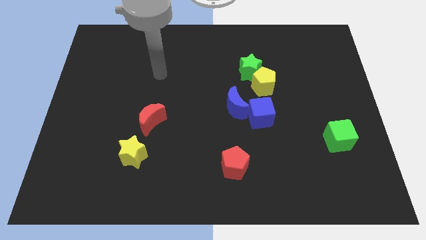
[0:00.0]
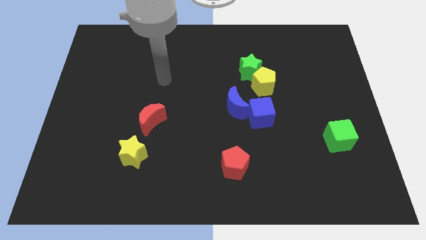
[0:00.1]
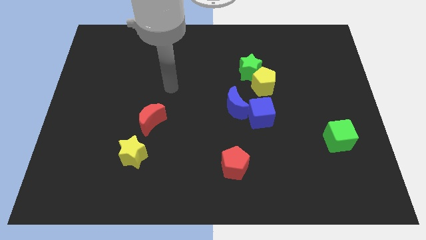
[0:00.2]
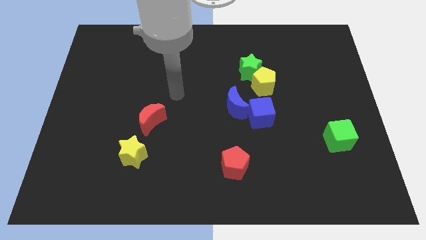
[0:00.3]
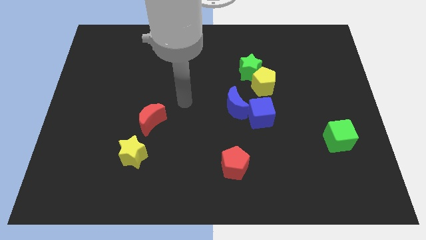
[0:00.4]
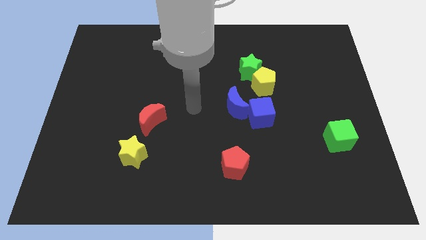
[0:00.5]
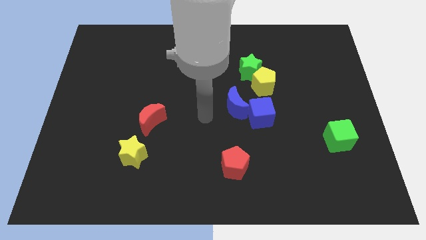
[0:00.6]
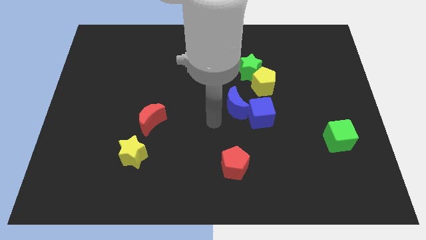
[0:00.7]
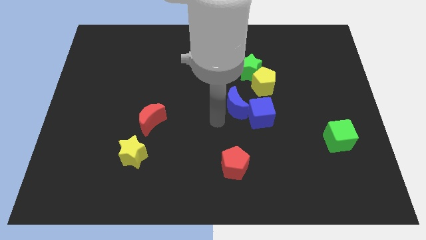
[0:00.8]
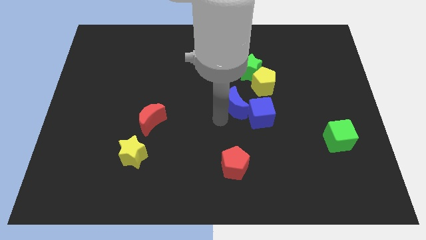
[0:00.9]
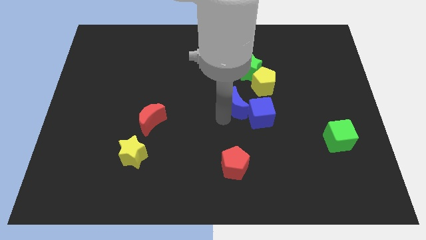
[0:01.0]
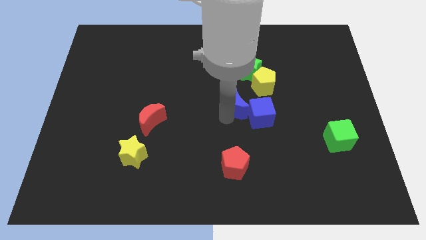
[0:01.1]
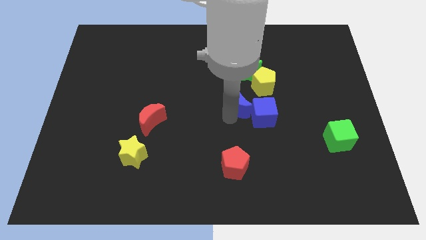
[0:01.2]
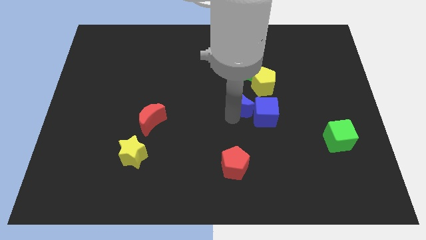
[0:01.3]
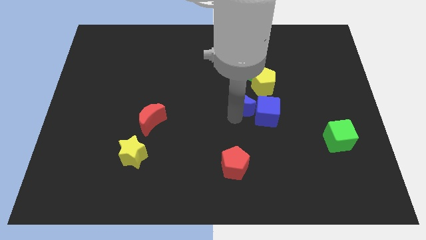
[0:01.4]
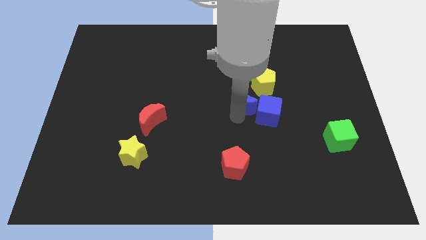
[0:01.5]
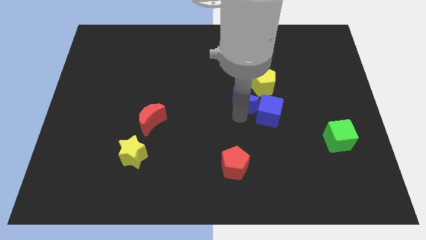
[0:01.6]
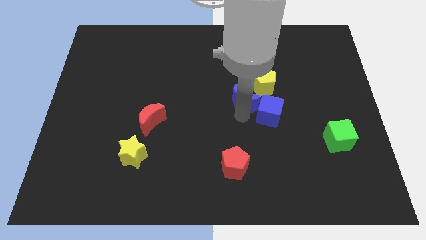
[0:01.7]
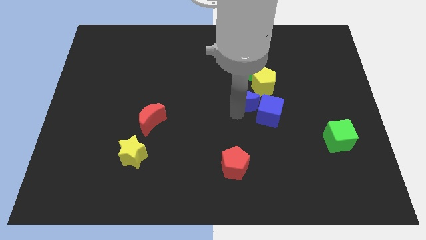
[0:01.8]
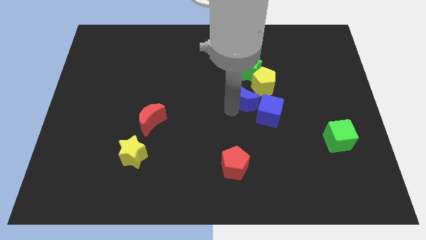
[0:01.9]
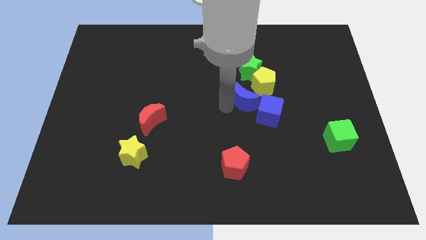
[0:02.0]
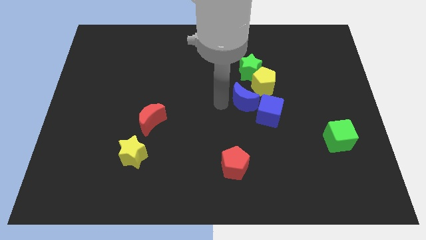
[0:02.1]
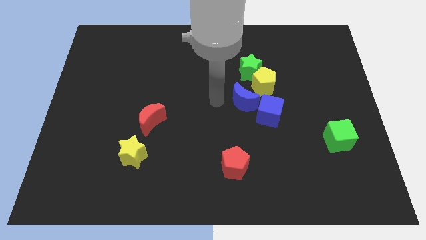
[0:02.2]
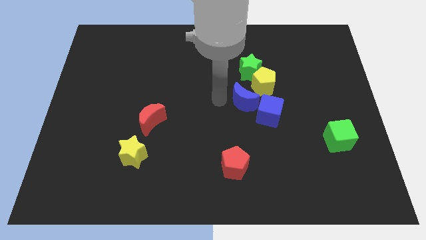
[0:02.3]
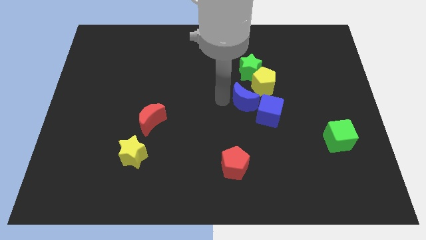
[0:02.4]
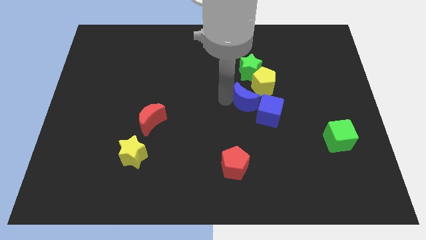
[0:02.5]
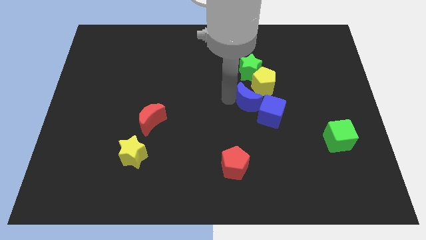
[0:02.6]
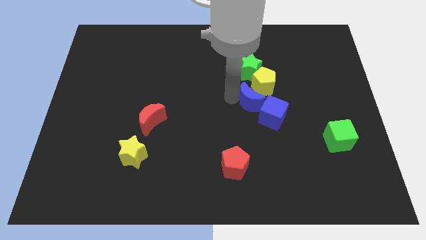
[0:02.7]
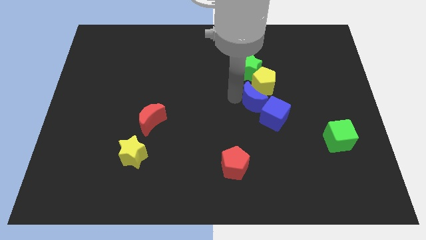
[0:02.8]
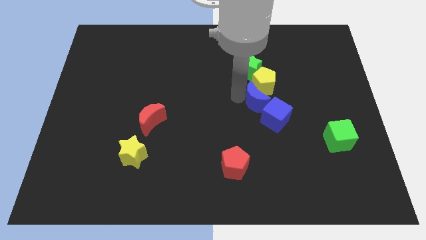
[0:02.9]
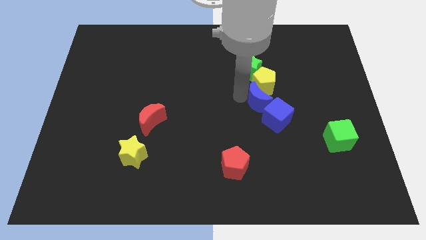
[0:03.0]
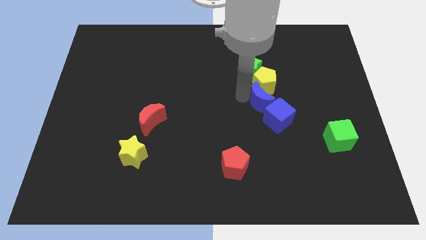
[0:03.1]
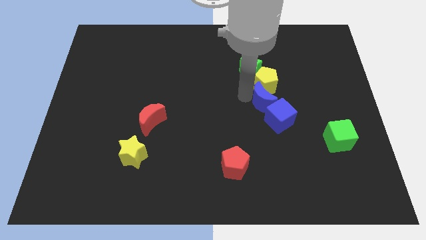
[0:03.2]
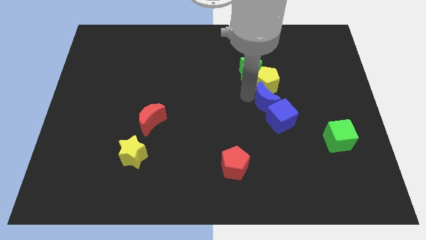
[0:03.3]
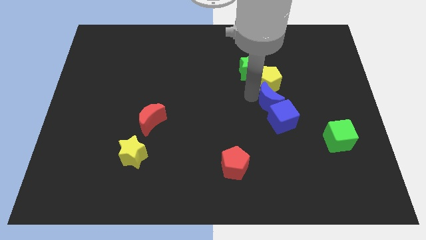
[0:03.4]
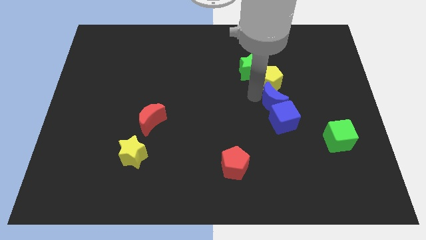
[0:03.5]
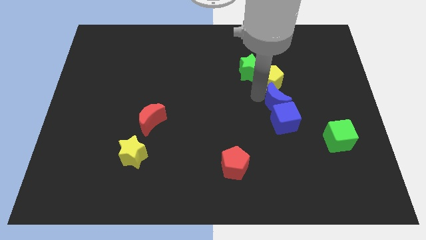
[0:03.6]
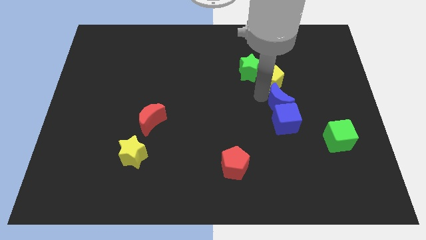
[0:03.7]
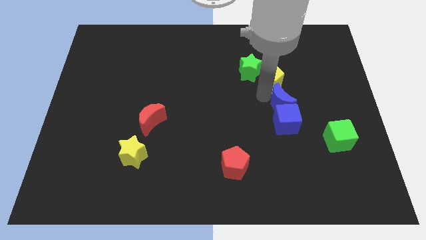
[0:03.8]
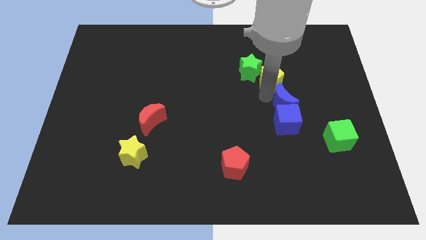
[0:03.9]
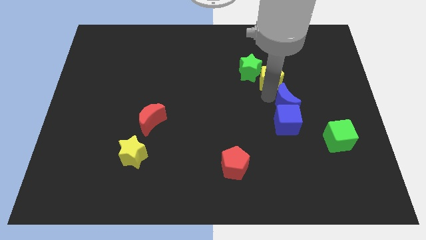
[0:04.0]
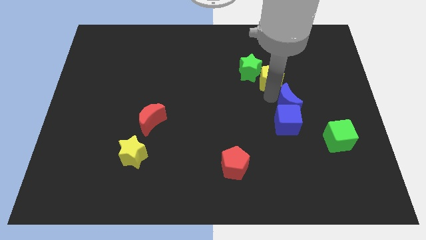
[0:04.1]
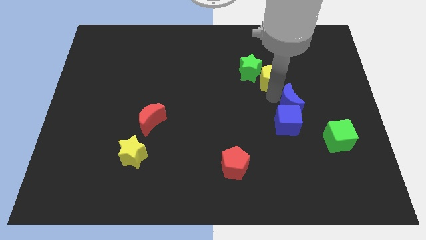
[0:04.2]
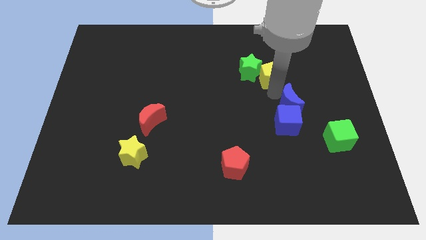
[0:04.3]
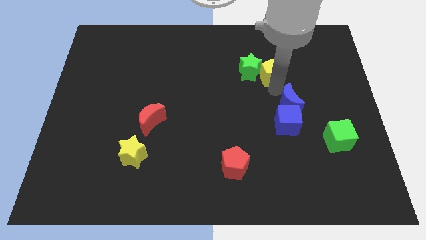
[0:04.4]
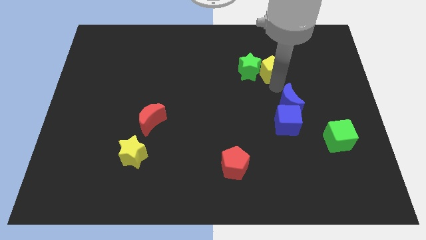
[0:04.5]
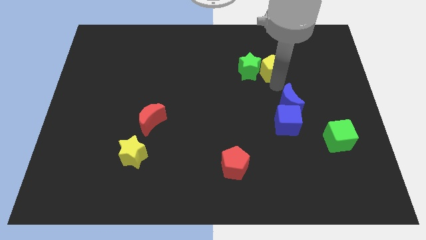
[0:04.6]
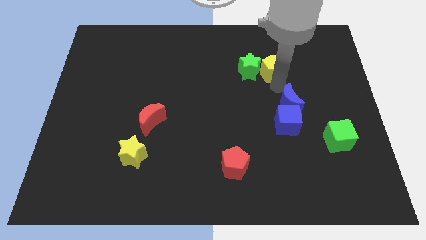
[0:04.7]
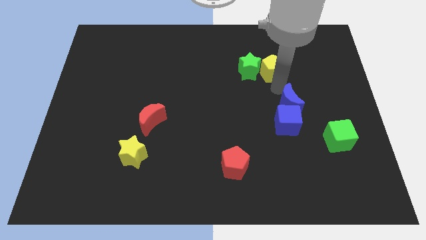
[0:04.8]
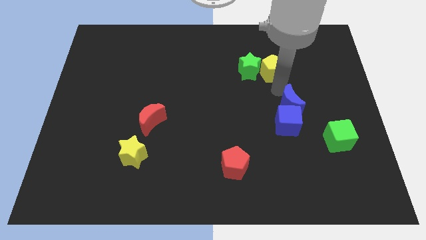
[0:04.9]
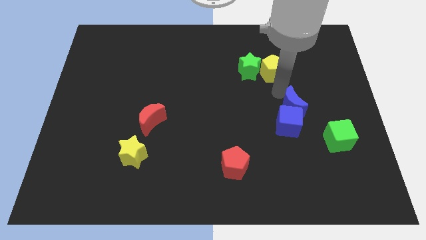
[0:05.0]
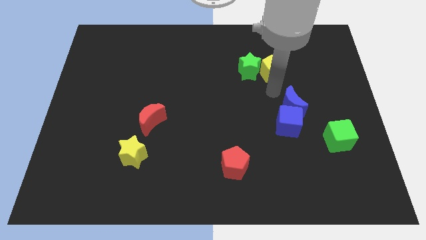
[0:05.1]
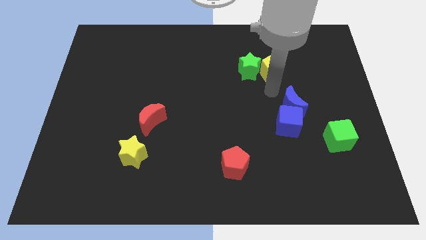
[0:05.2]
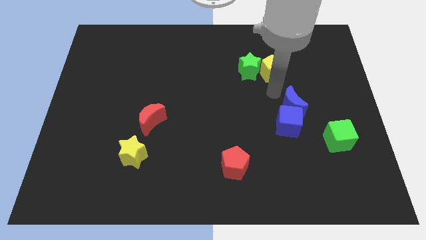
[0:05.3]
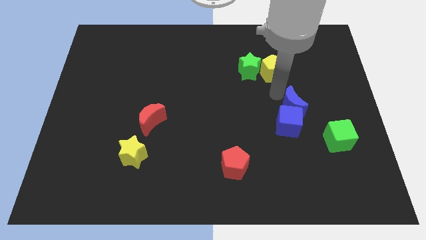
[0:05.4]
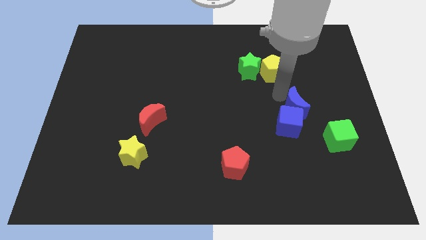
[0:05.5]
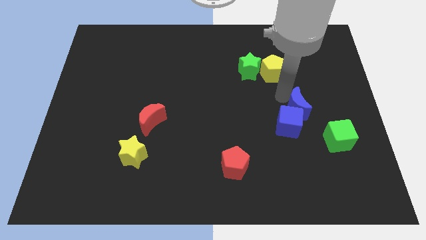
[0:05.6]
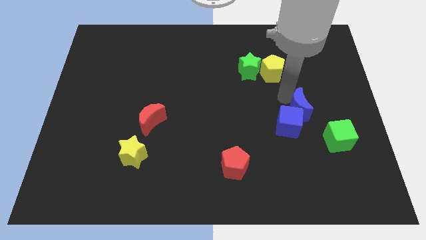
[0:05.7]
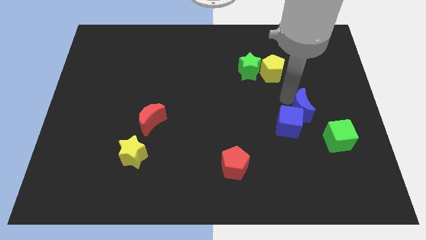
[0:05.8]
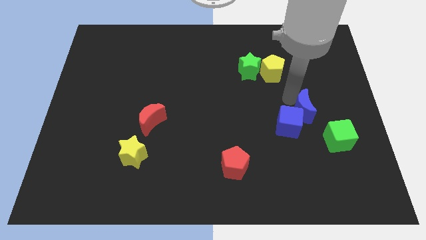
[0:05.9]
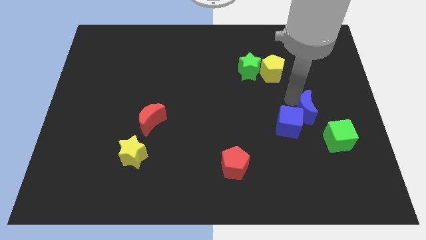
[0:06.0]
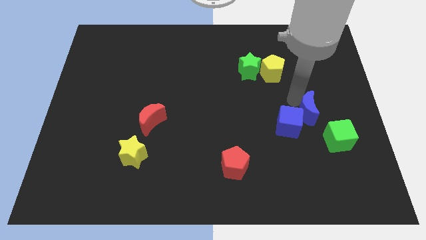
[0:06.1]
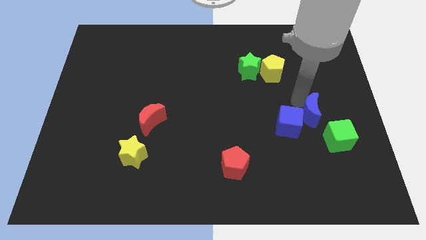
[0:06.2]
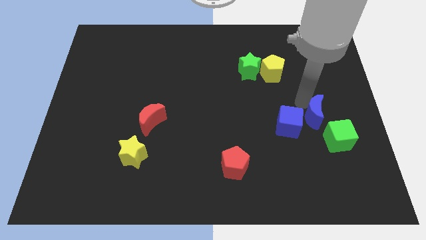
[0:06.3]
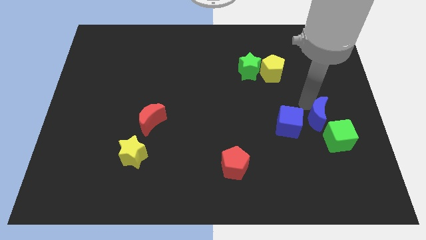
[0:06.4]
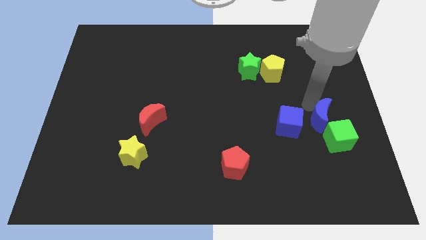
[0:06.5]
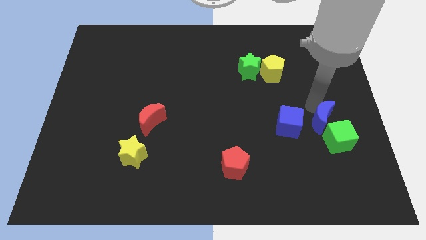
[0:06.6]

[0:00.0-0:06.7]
put the blue moon to the green cube

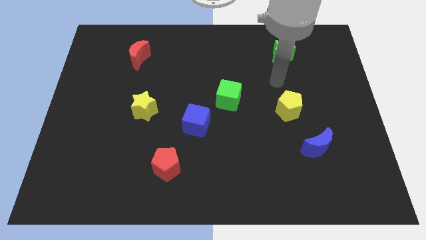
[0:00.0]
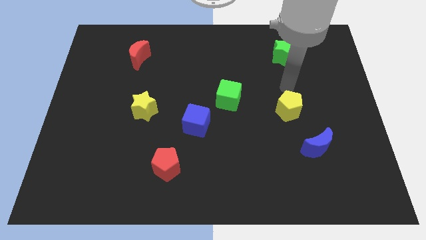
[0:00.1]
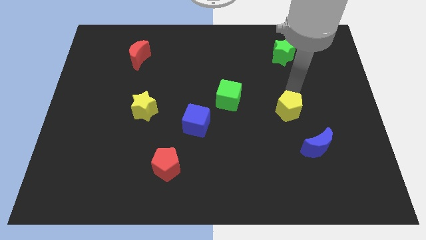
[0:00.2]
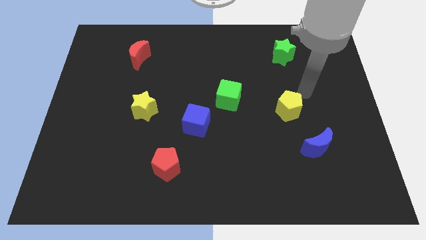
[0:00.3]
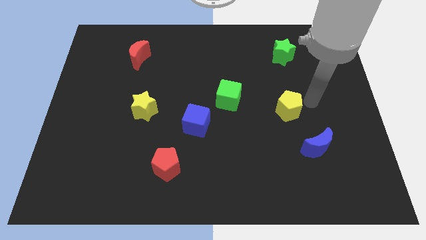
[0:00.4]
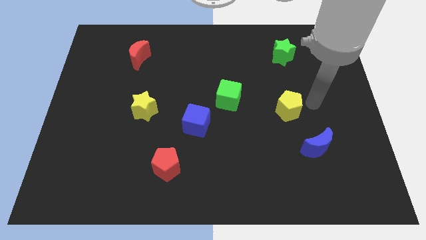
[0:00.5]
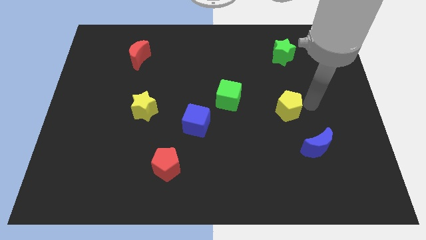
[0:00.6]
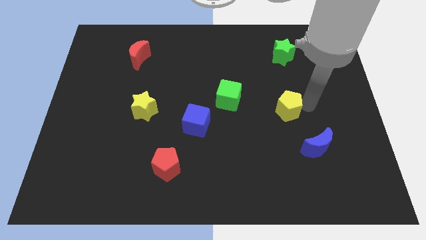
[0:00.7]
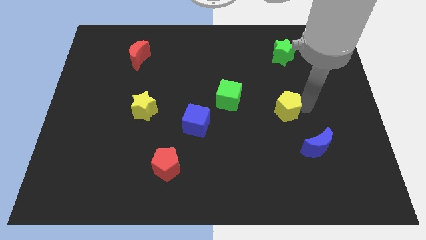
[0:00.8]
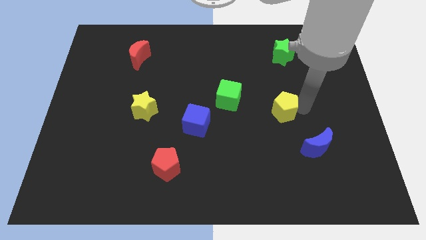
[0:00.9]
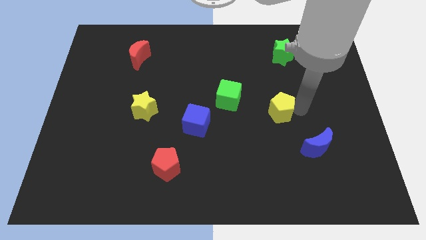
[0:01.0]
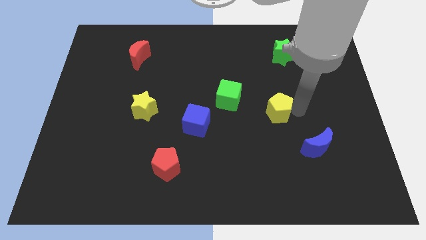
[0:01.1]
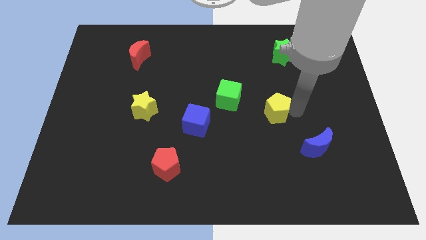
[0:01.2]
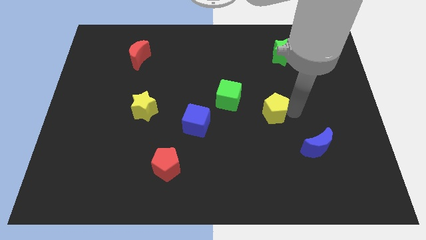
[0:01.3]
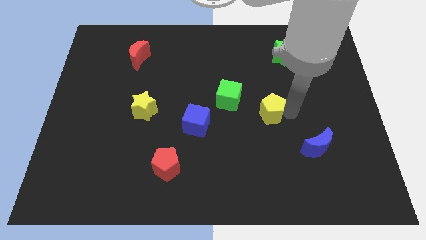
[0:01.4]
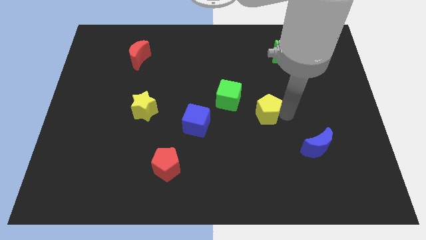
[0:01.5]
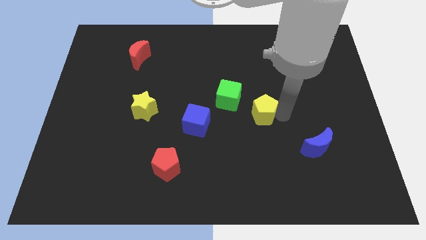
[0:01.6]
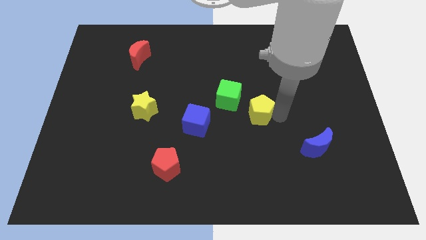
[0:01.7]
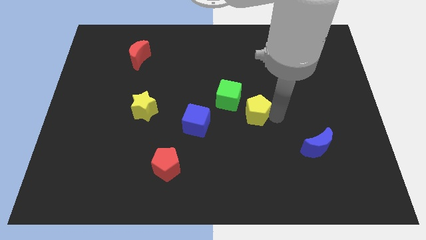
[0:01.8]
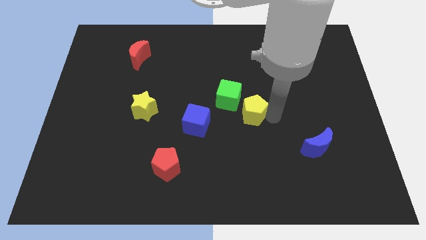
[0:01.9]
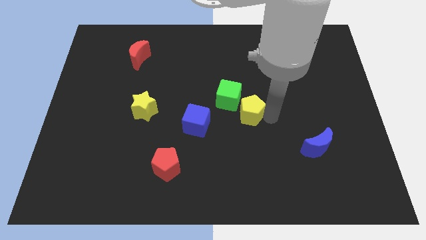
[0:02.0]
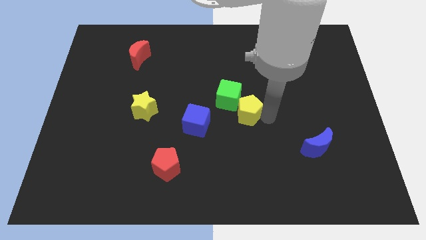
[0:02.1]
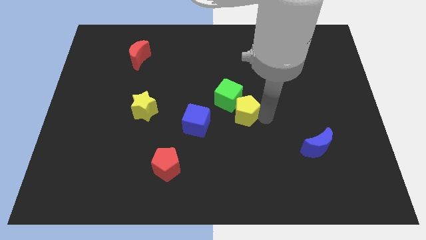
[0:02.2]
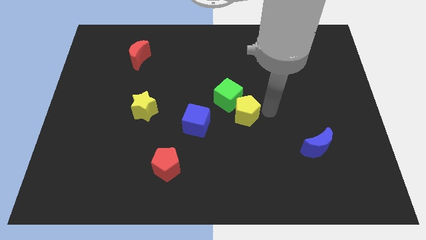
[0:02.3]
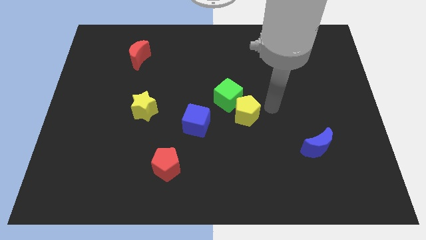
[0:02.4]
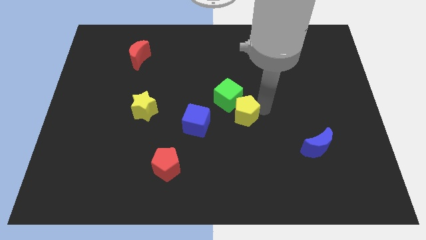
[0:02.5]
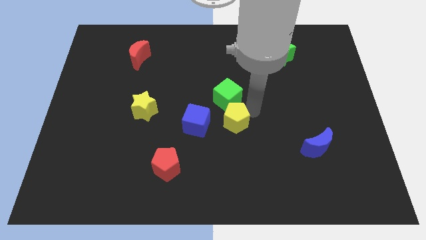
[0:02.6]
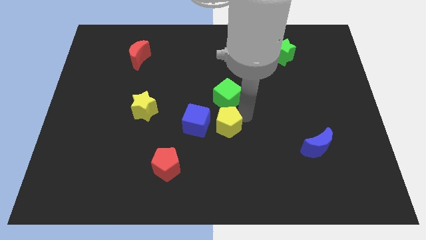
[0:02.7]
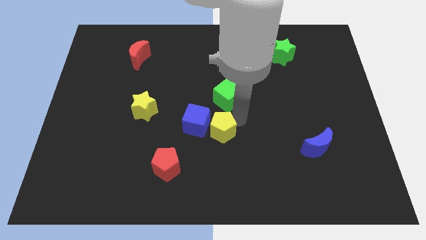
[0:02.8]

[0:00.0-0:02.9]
push the yellow pentagon close to the blue cube
